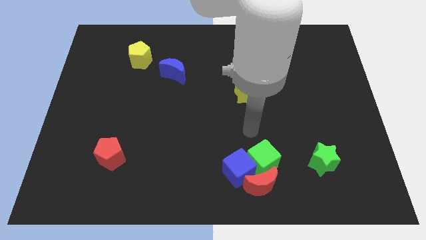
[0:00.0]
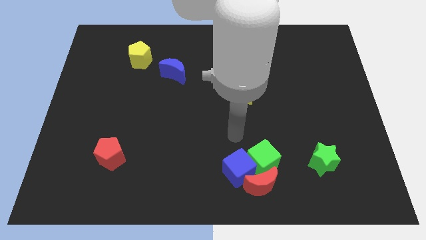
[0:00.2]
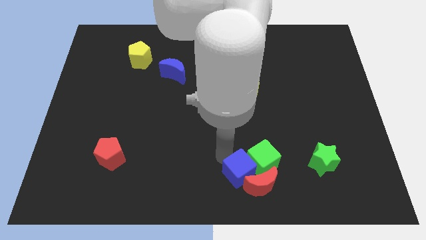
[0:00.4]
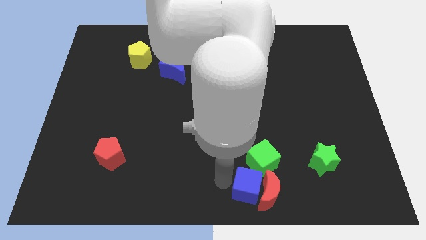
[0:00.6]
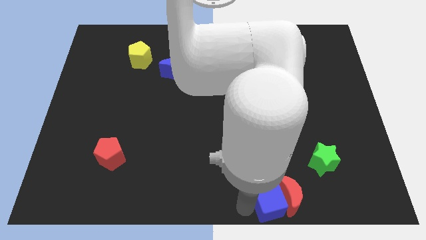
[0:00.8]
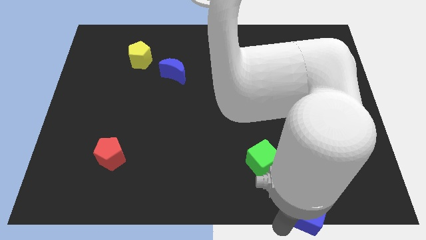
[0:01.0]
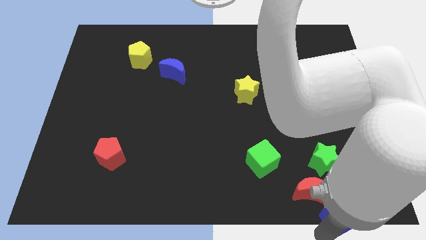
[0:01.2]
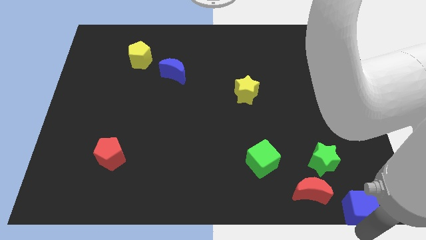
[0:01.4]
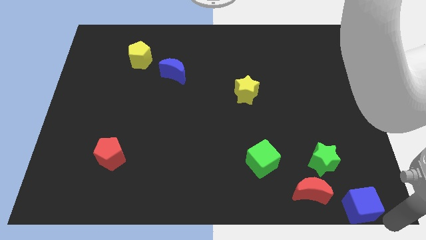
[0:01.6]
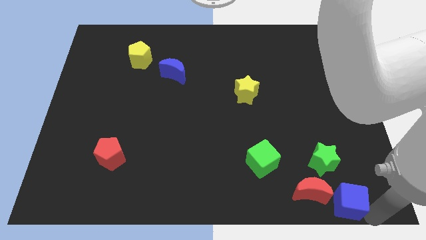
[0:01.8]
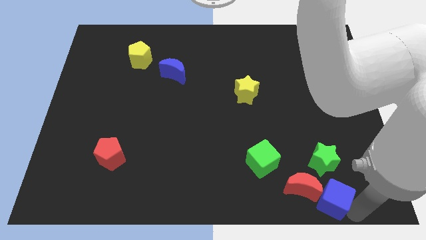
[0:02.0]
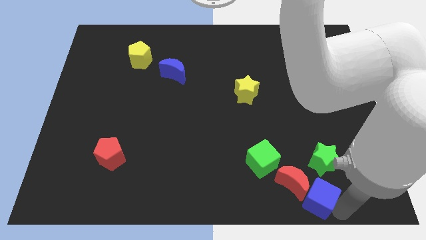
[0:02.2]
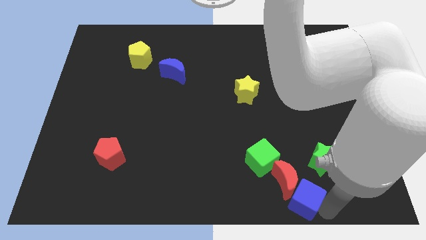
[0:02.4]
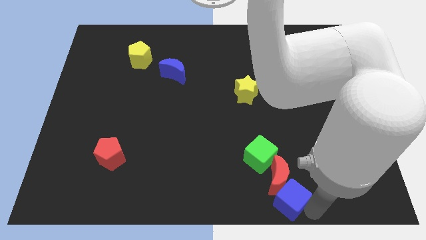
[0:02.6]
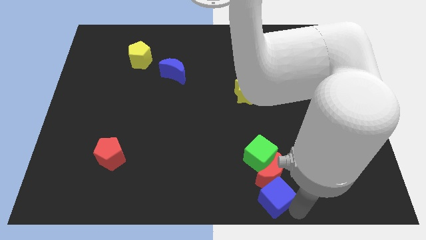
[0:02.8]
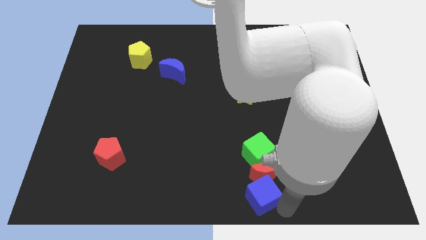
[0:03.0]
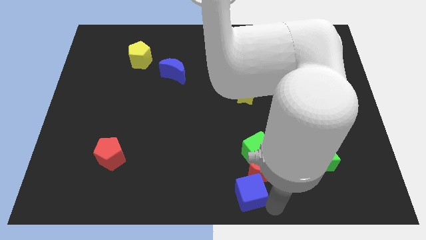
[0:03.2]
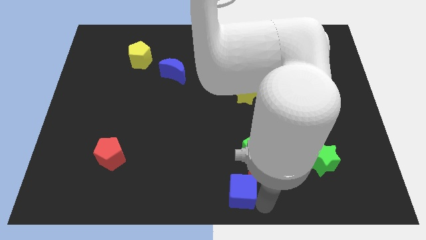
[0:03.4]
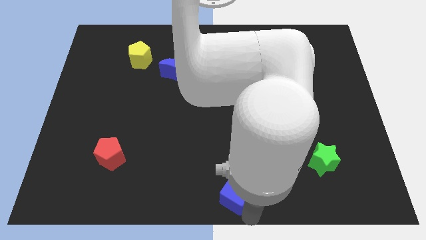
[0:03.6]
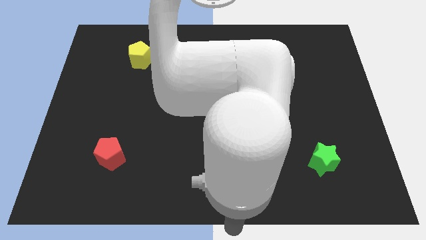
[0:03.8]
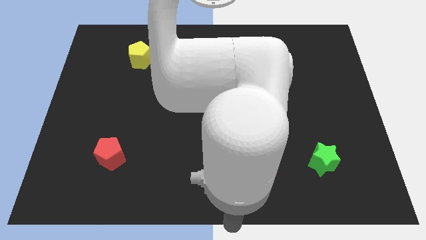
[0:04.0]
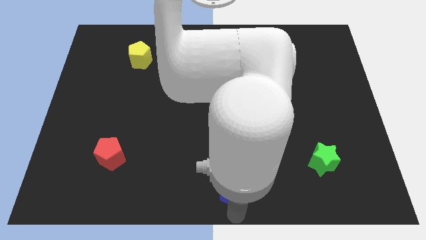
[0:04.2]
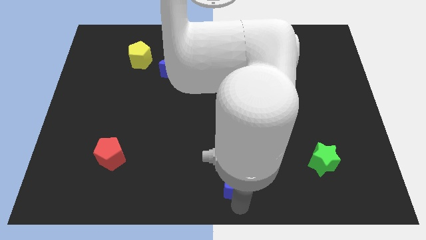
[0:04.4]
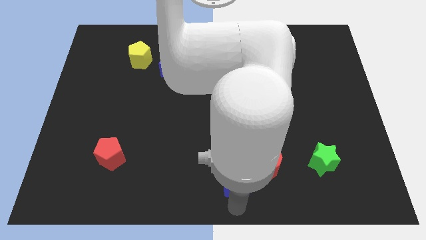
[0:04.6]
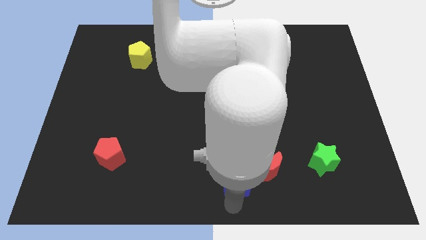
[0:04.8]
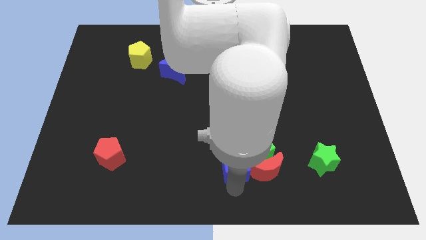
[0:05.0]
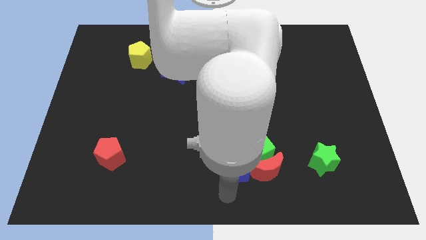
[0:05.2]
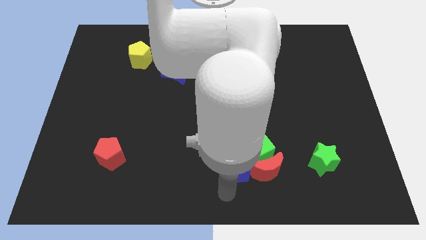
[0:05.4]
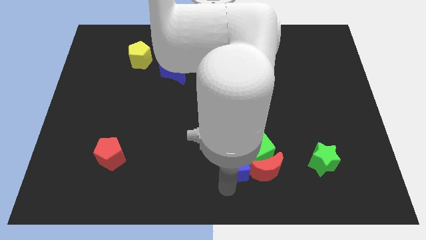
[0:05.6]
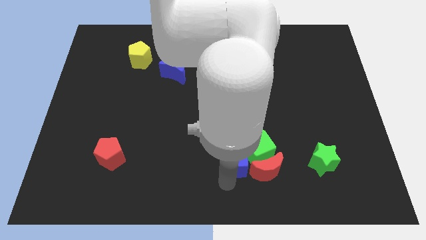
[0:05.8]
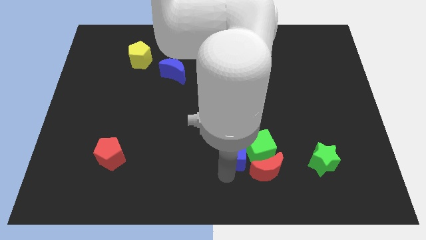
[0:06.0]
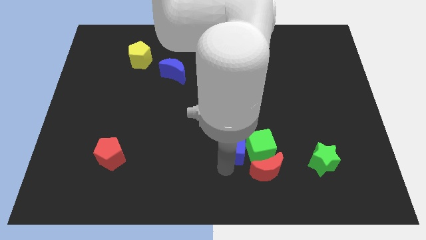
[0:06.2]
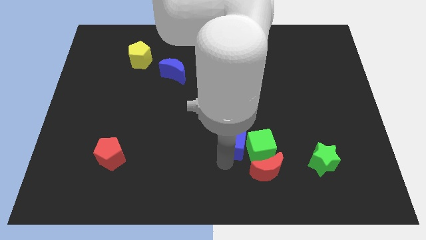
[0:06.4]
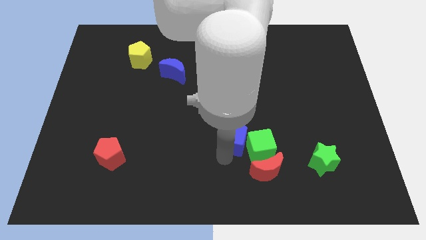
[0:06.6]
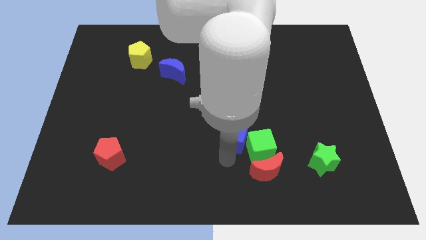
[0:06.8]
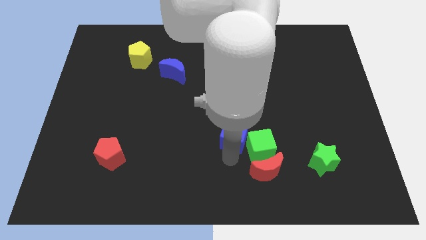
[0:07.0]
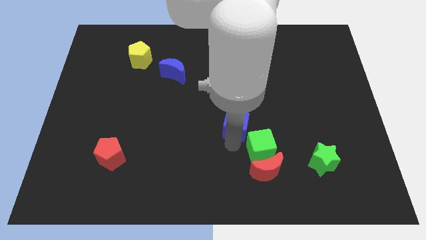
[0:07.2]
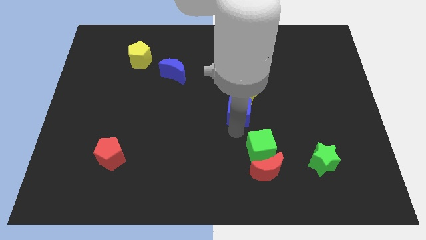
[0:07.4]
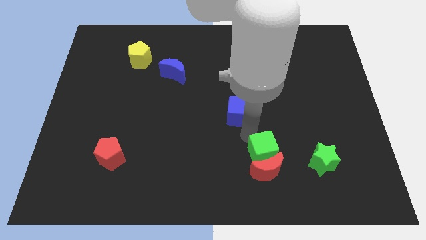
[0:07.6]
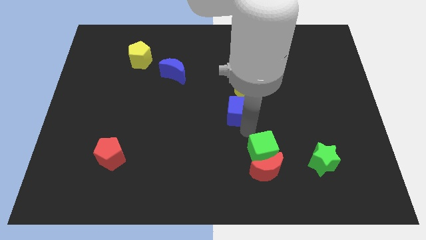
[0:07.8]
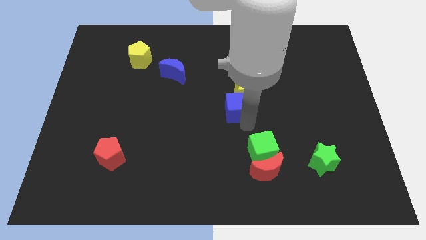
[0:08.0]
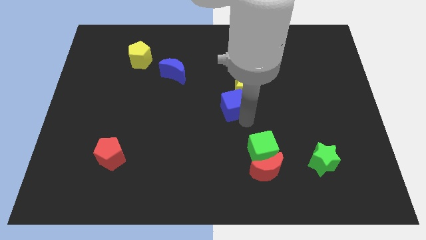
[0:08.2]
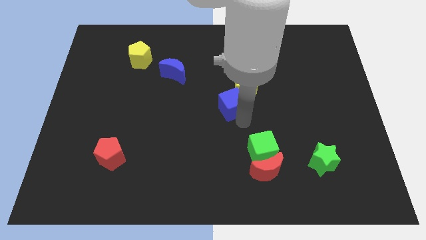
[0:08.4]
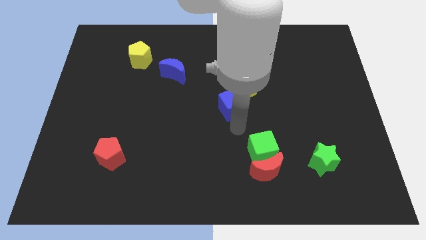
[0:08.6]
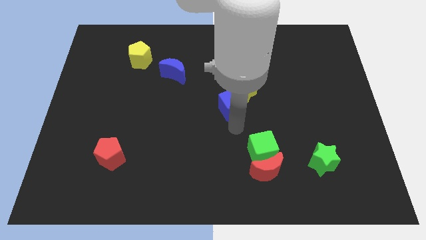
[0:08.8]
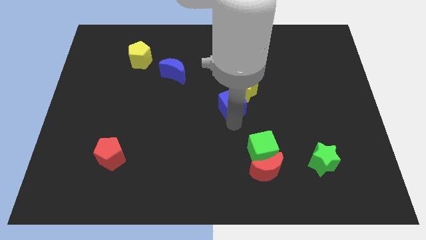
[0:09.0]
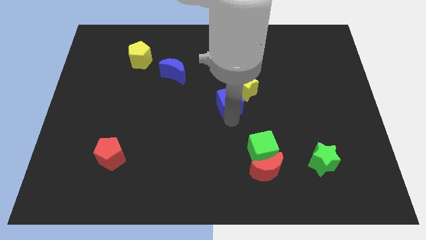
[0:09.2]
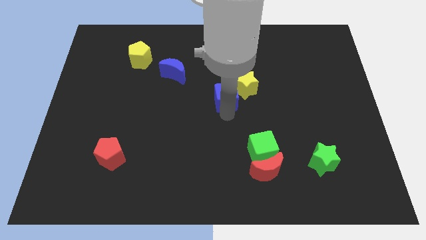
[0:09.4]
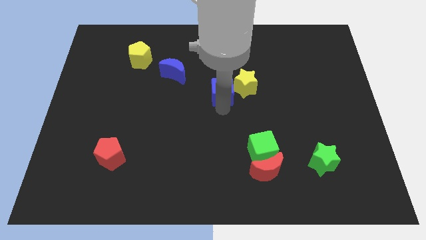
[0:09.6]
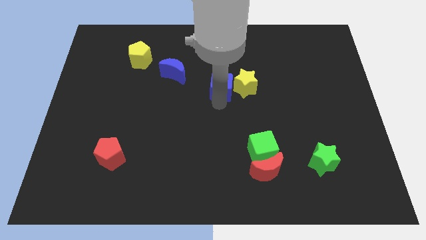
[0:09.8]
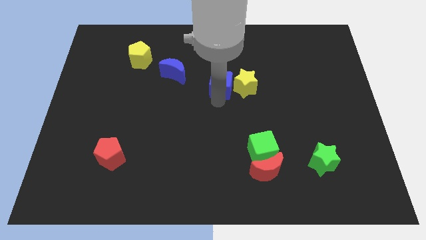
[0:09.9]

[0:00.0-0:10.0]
put the blue cube to the top left of the yellow star

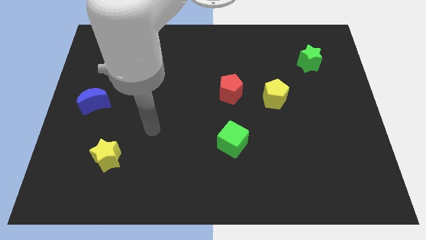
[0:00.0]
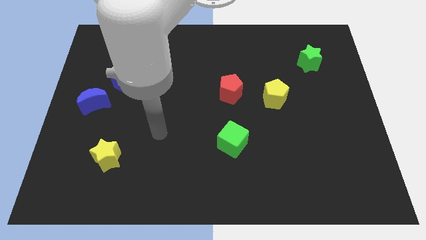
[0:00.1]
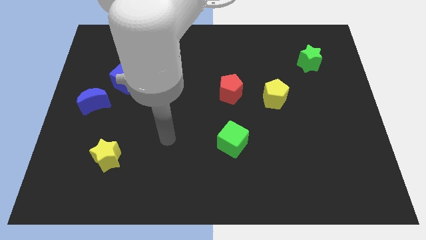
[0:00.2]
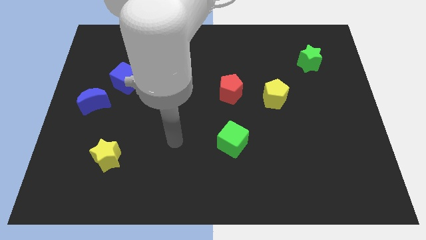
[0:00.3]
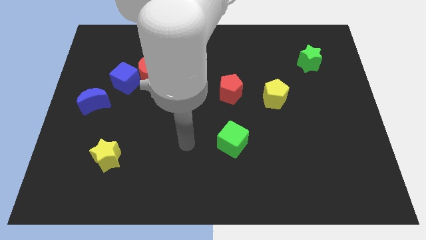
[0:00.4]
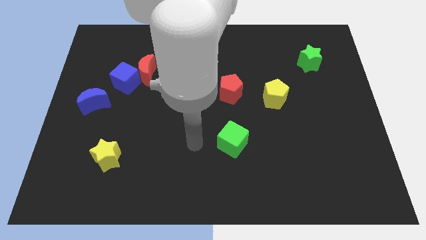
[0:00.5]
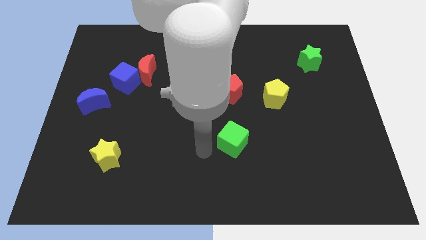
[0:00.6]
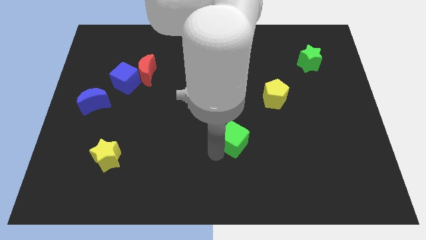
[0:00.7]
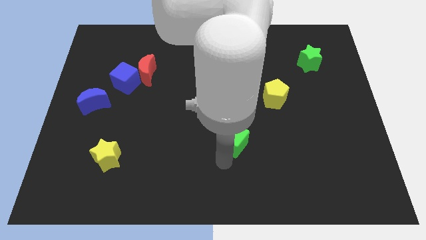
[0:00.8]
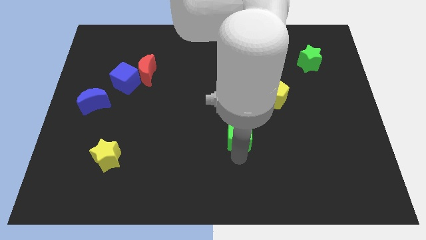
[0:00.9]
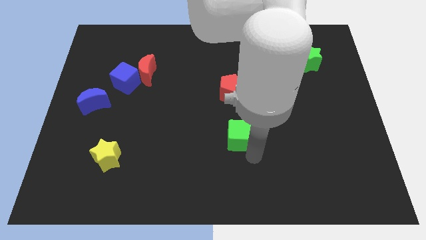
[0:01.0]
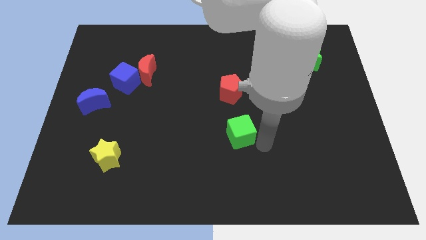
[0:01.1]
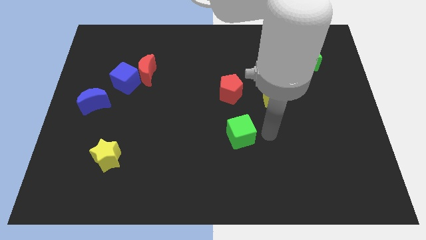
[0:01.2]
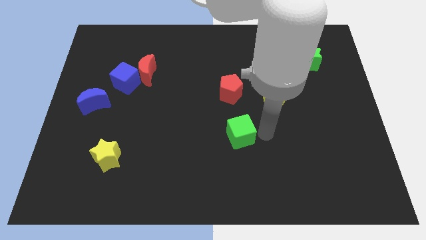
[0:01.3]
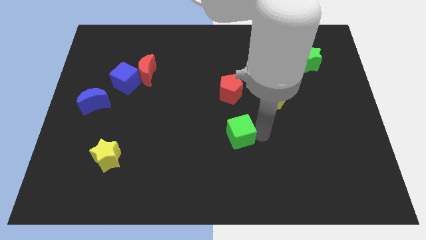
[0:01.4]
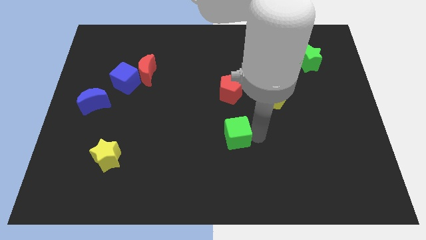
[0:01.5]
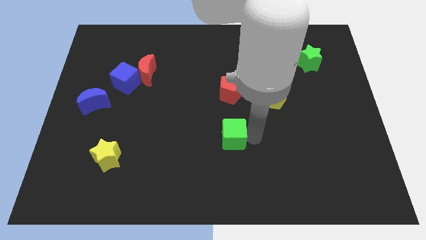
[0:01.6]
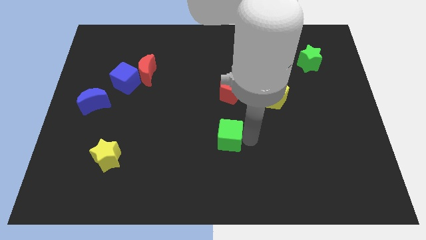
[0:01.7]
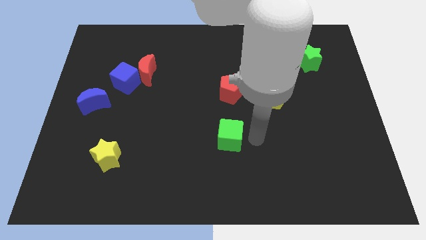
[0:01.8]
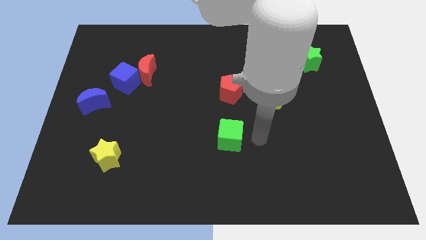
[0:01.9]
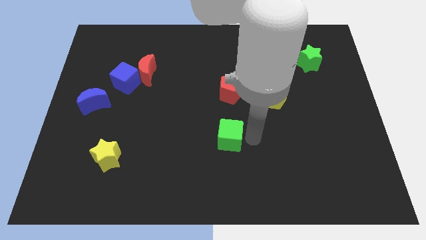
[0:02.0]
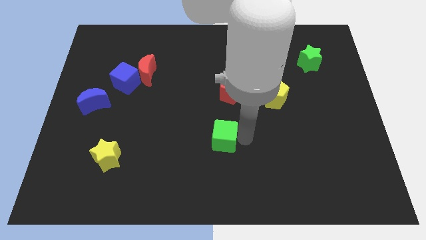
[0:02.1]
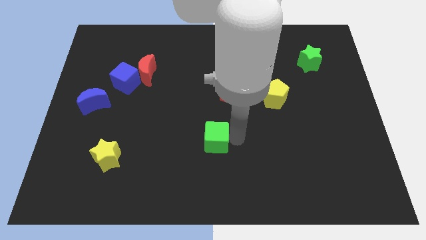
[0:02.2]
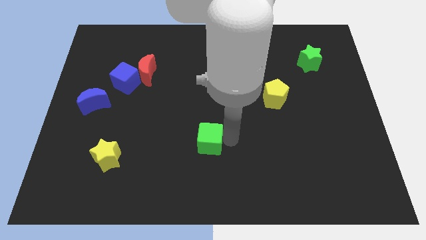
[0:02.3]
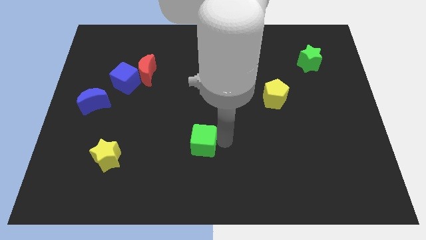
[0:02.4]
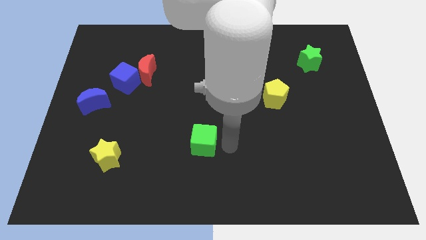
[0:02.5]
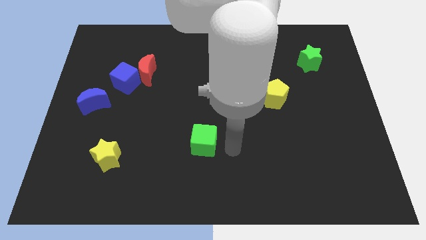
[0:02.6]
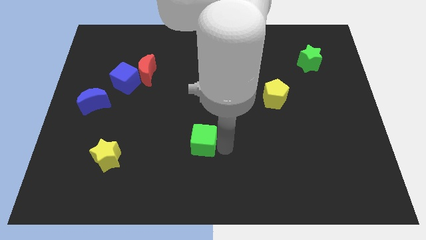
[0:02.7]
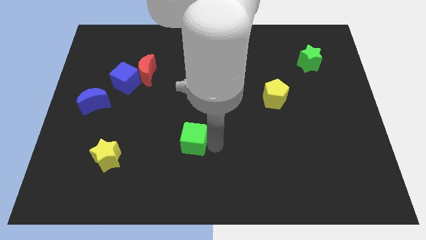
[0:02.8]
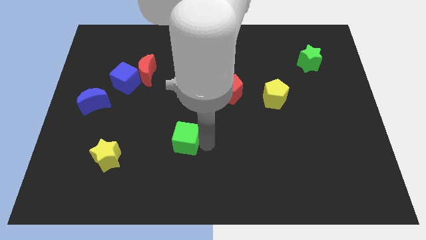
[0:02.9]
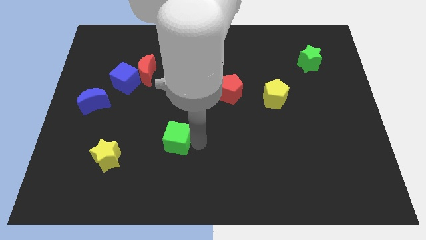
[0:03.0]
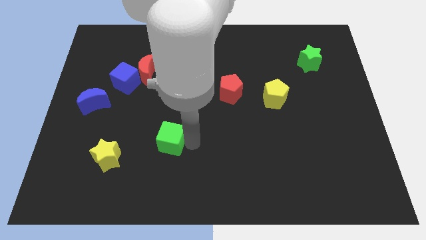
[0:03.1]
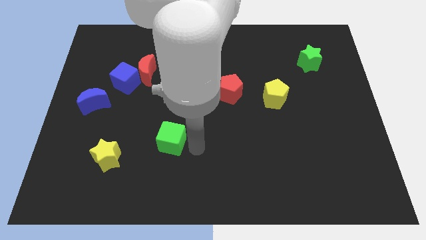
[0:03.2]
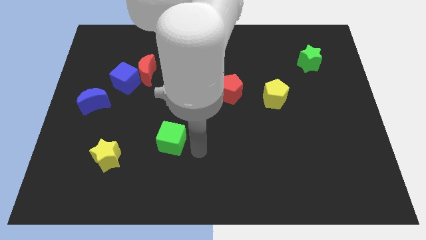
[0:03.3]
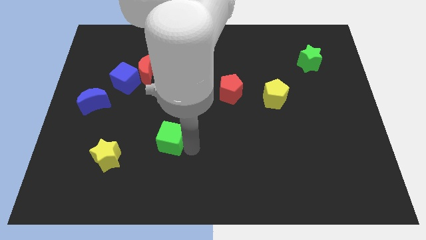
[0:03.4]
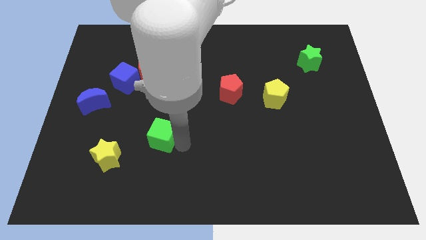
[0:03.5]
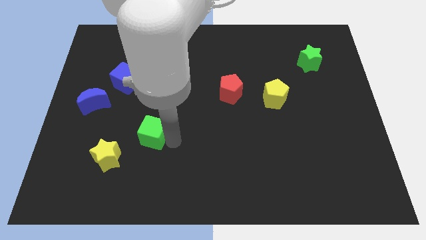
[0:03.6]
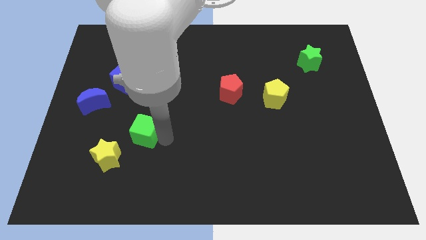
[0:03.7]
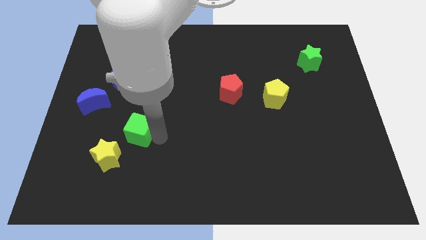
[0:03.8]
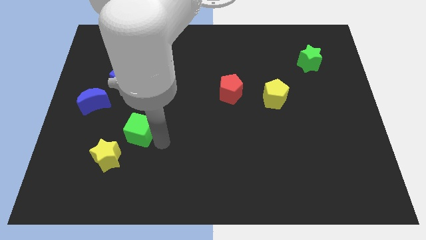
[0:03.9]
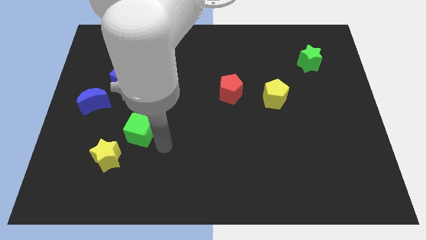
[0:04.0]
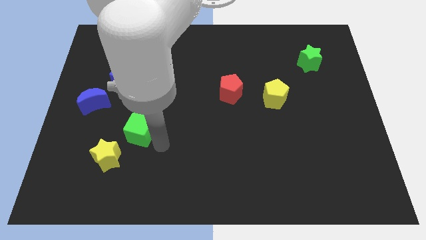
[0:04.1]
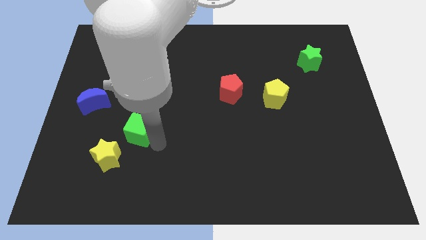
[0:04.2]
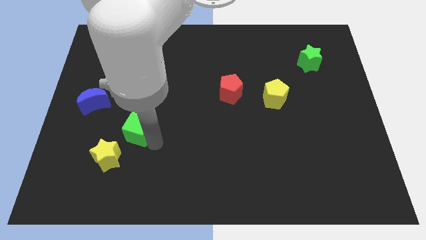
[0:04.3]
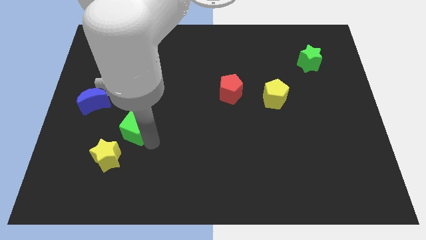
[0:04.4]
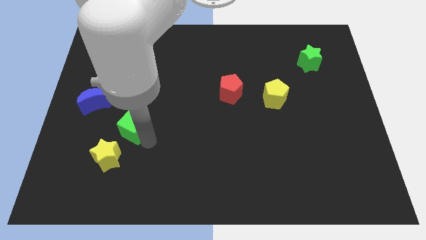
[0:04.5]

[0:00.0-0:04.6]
push the green cube to the top side of the yellow star
